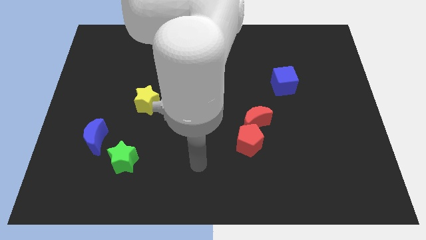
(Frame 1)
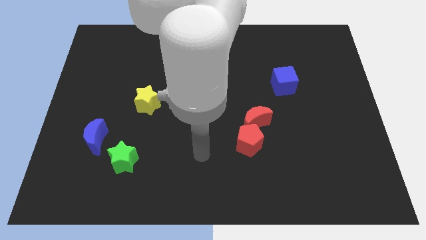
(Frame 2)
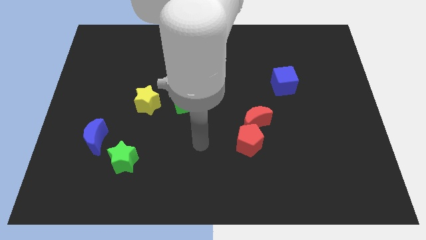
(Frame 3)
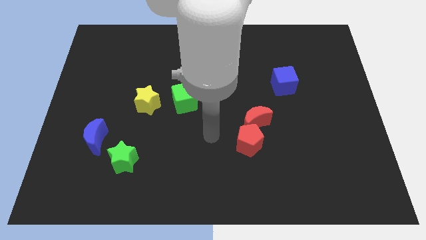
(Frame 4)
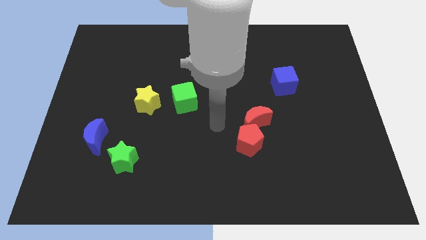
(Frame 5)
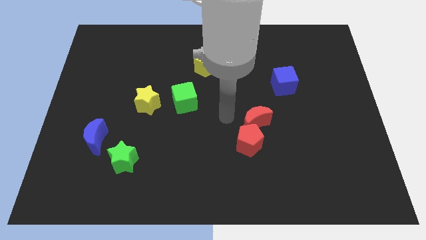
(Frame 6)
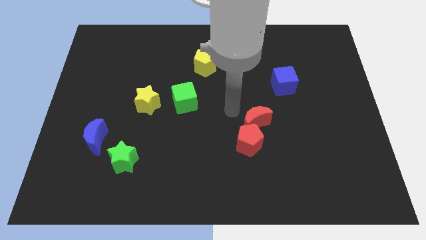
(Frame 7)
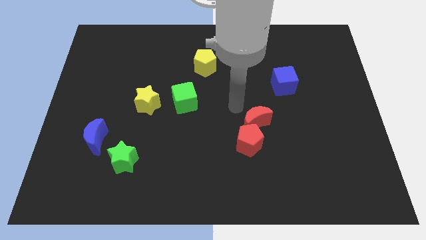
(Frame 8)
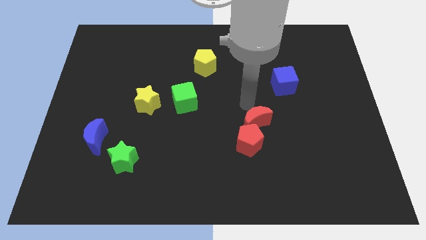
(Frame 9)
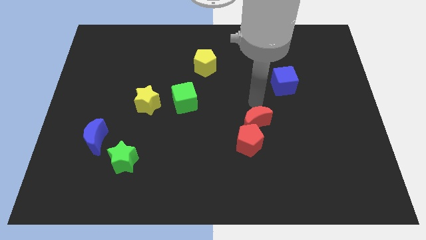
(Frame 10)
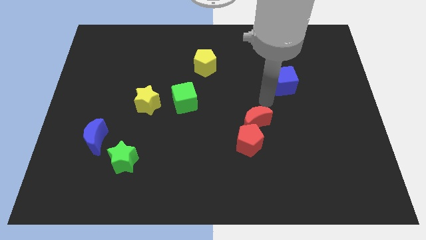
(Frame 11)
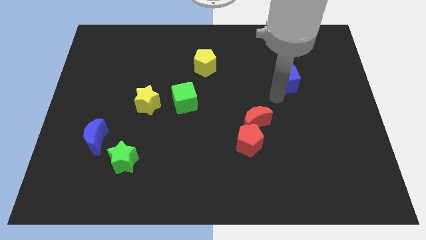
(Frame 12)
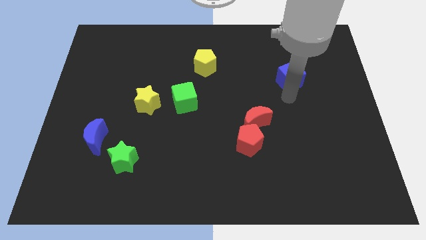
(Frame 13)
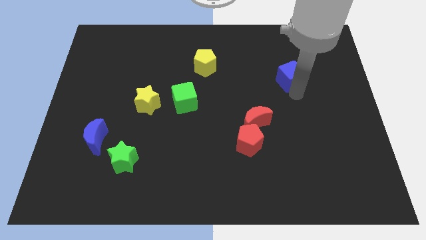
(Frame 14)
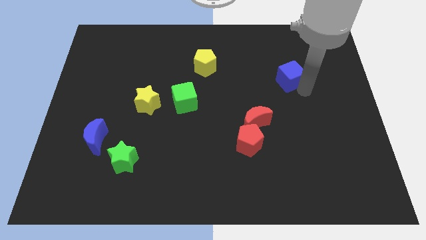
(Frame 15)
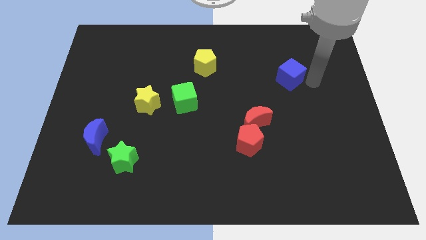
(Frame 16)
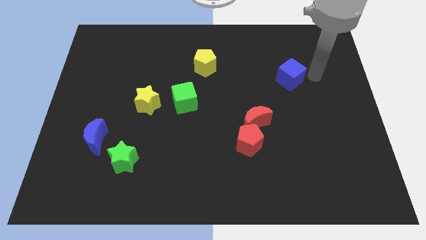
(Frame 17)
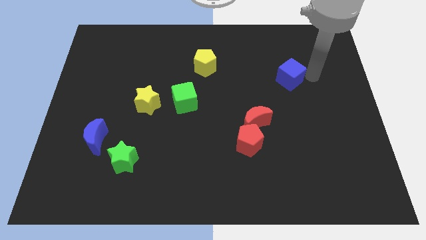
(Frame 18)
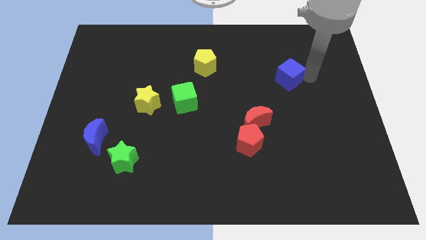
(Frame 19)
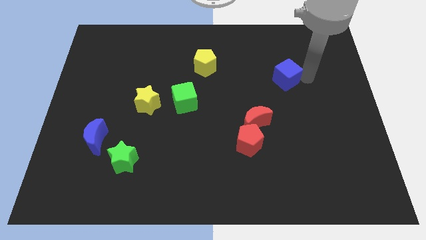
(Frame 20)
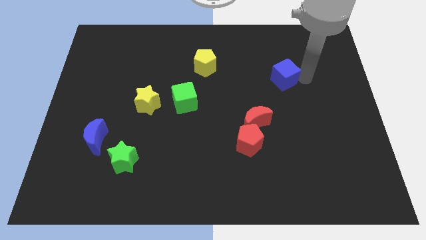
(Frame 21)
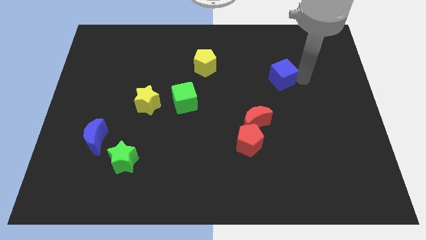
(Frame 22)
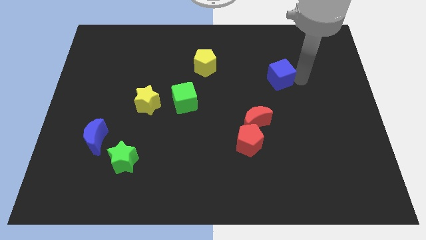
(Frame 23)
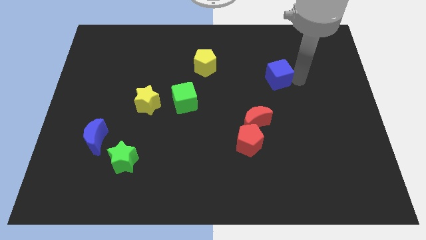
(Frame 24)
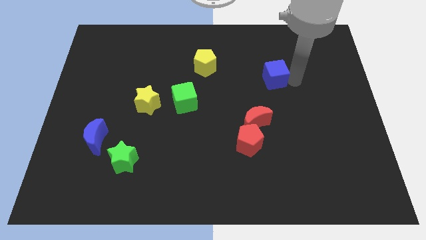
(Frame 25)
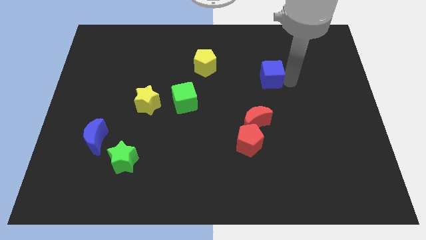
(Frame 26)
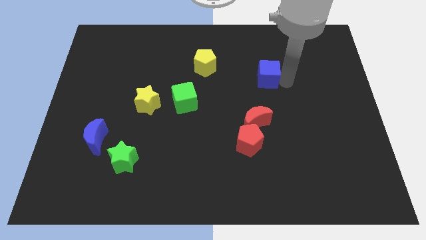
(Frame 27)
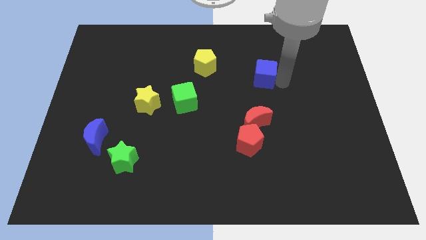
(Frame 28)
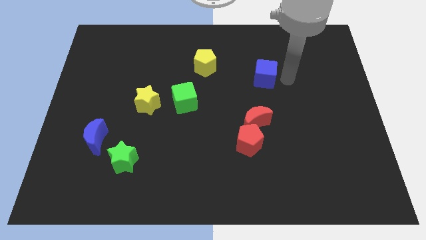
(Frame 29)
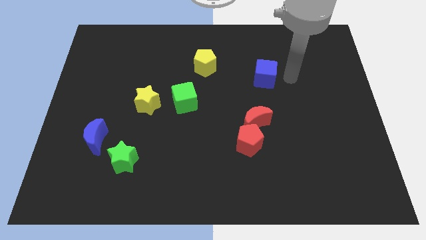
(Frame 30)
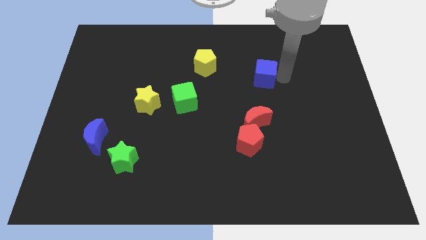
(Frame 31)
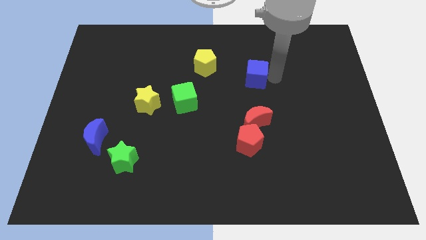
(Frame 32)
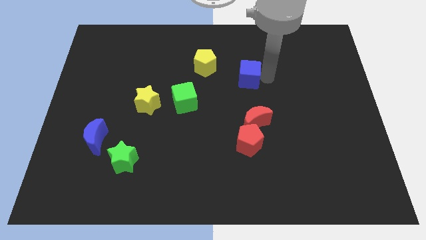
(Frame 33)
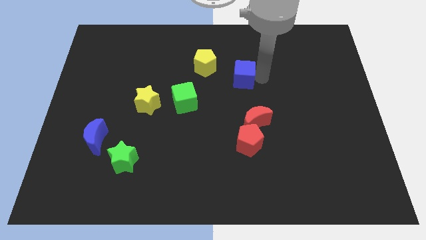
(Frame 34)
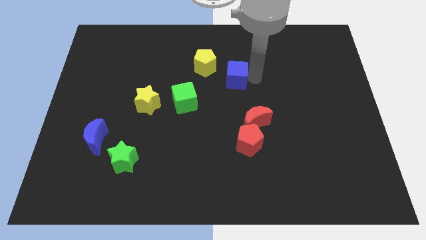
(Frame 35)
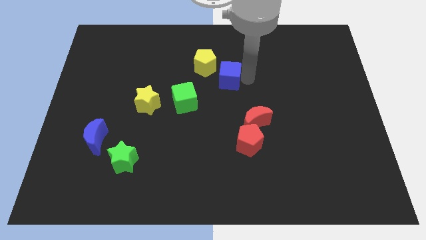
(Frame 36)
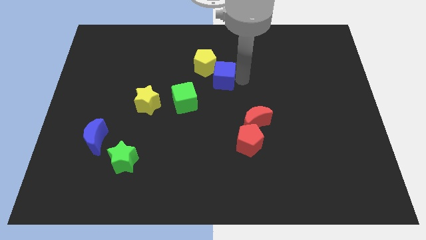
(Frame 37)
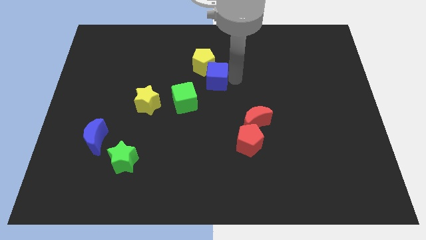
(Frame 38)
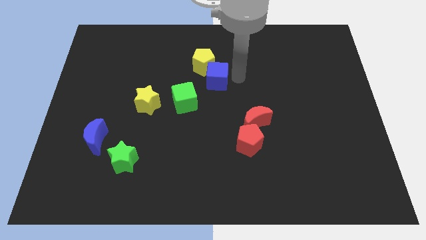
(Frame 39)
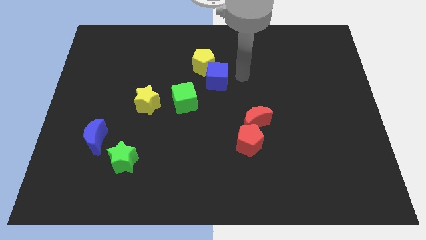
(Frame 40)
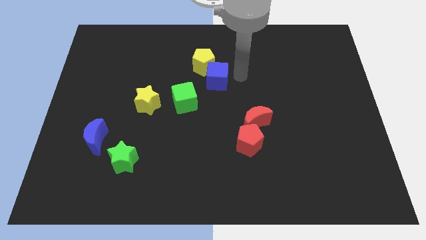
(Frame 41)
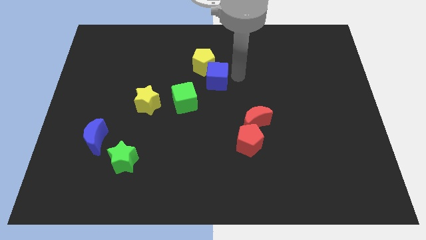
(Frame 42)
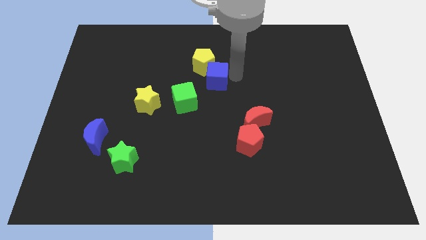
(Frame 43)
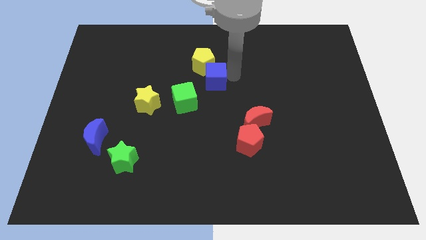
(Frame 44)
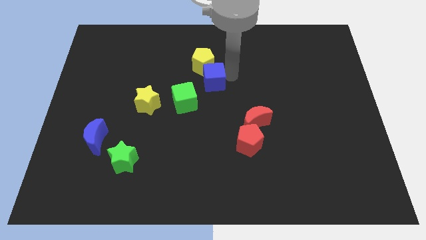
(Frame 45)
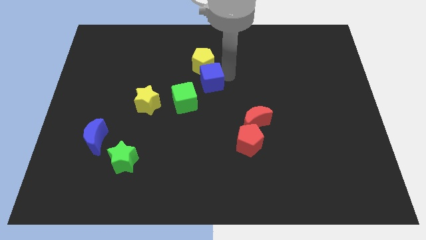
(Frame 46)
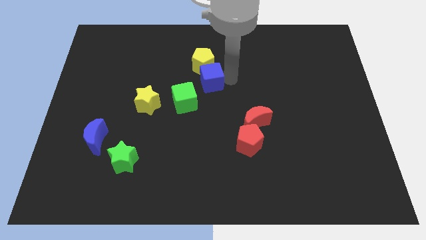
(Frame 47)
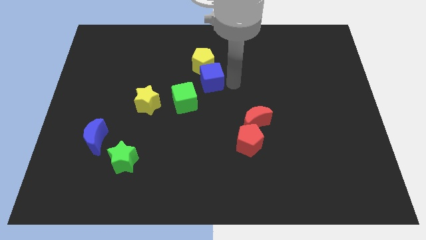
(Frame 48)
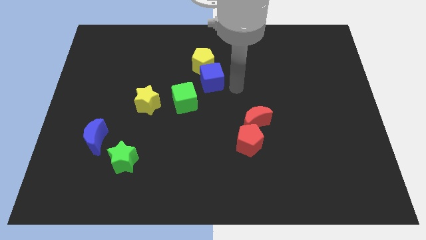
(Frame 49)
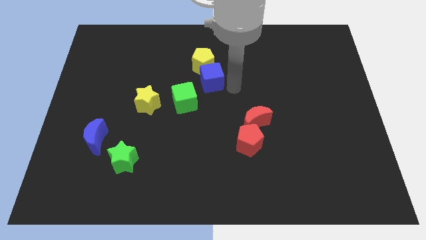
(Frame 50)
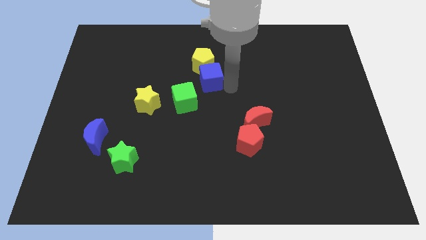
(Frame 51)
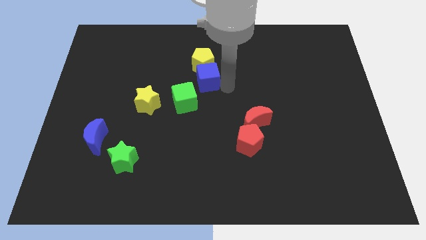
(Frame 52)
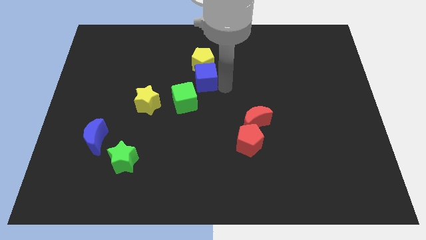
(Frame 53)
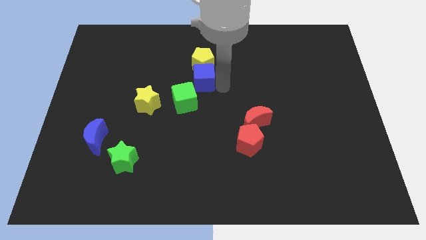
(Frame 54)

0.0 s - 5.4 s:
move the blue cube to the left

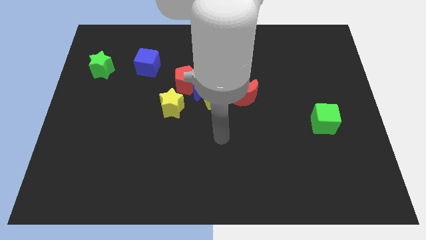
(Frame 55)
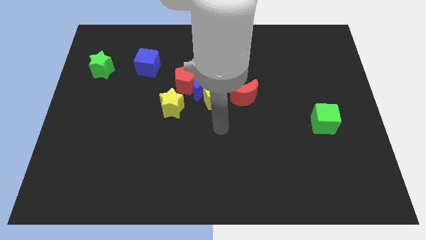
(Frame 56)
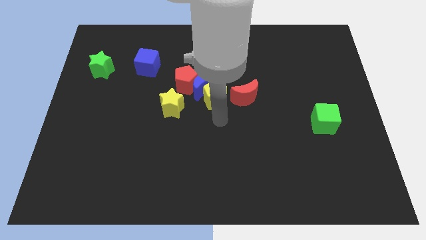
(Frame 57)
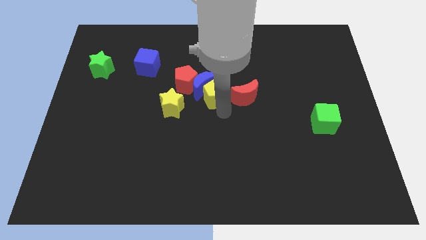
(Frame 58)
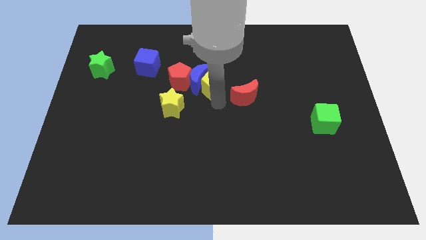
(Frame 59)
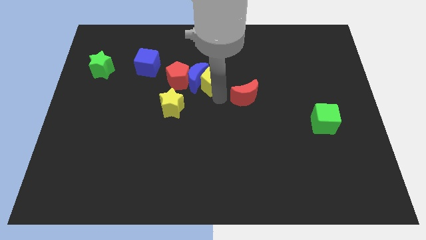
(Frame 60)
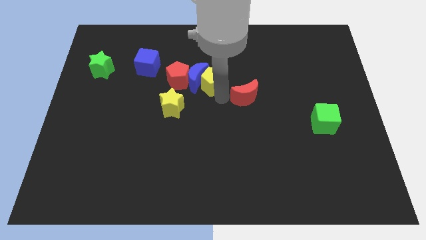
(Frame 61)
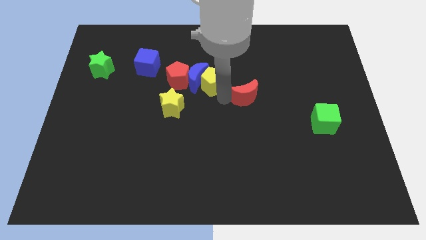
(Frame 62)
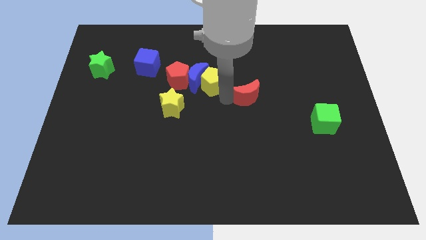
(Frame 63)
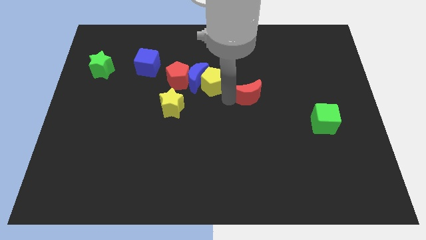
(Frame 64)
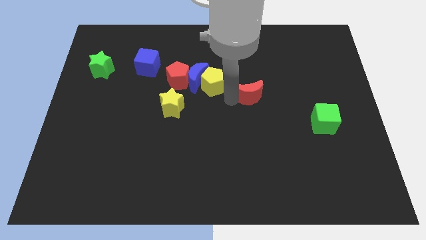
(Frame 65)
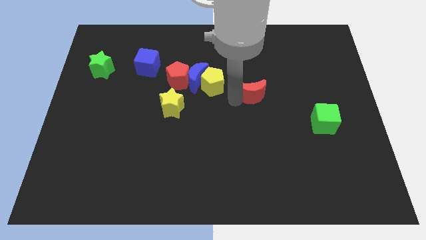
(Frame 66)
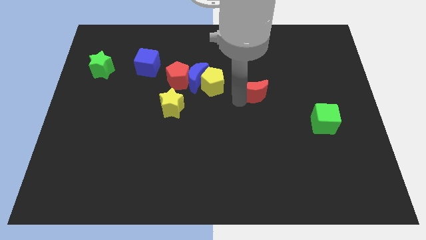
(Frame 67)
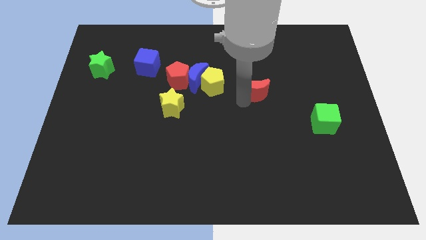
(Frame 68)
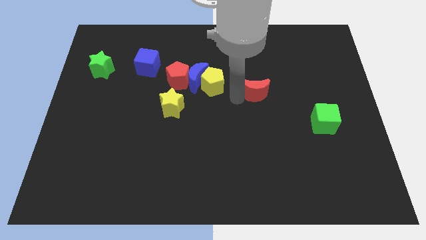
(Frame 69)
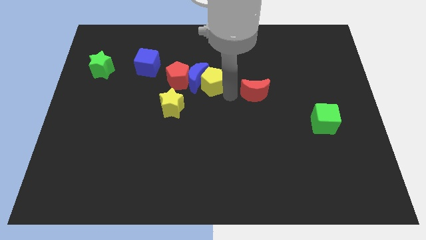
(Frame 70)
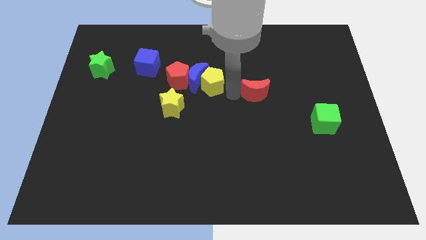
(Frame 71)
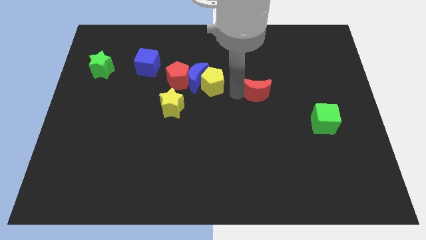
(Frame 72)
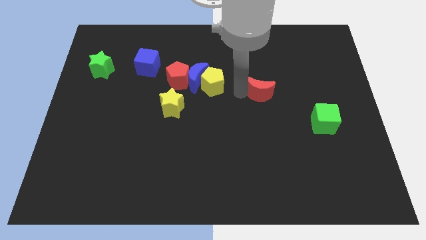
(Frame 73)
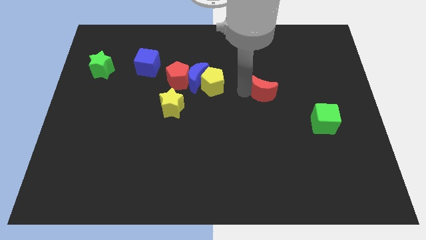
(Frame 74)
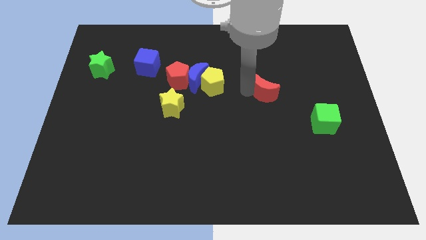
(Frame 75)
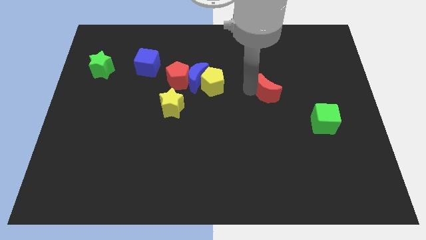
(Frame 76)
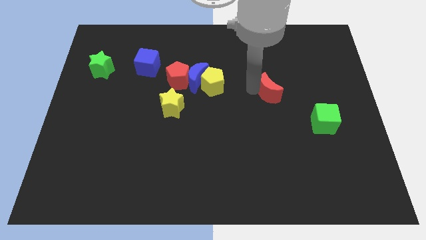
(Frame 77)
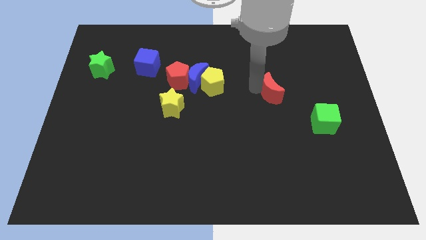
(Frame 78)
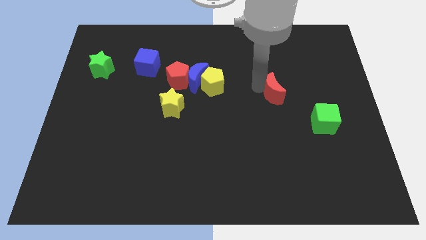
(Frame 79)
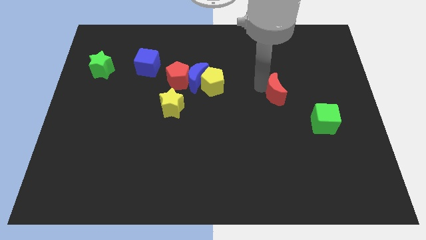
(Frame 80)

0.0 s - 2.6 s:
slightly push the red moon to the right
